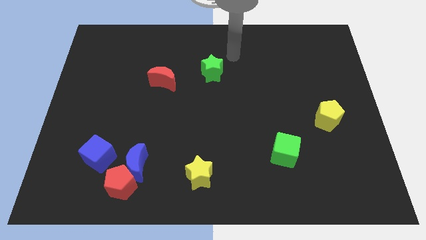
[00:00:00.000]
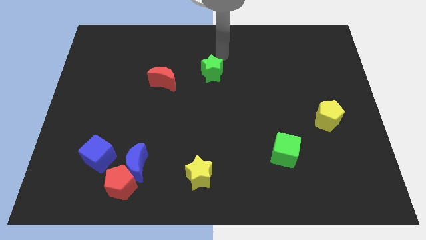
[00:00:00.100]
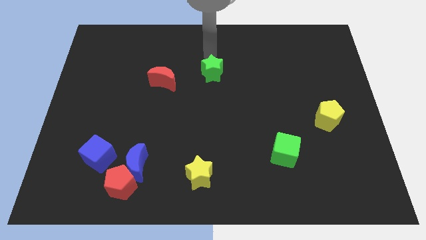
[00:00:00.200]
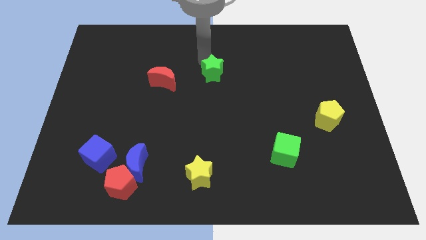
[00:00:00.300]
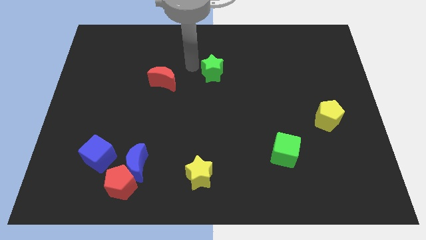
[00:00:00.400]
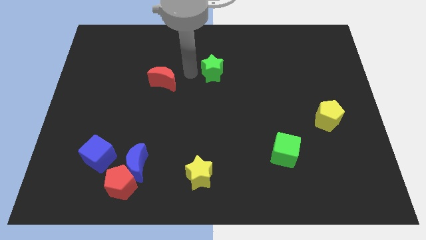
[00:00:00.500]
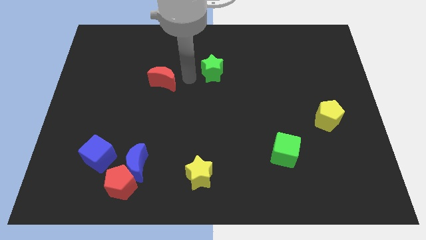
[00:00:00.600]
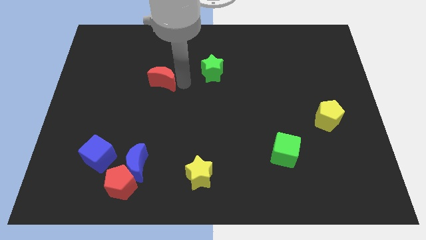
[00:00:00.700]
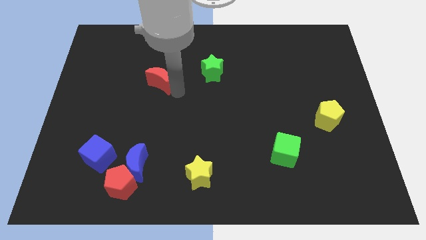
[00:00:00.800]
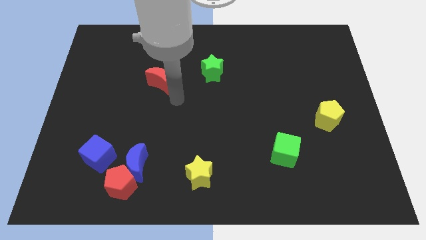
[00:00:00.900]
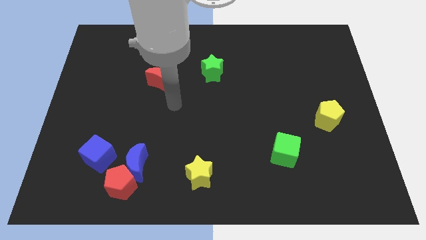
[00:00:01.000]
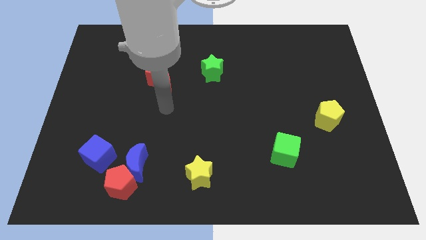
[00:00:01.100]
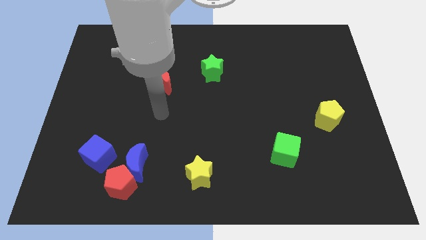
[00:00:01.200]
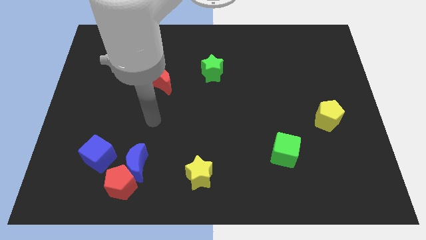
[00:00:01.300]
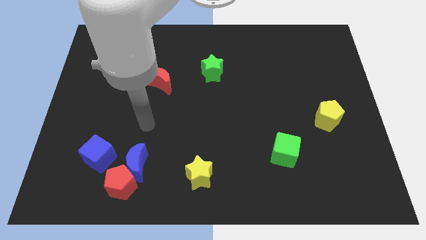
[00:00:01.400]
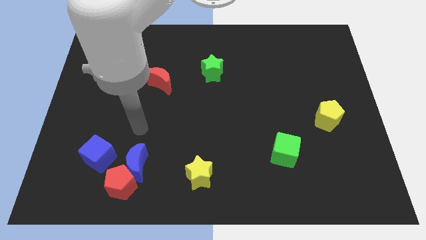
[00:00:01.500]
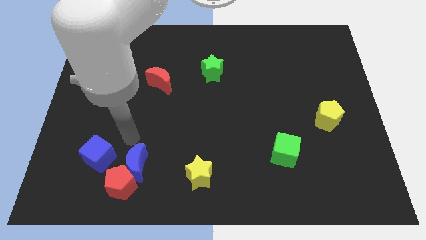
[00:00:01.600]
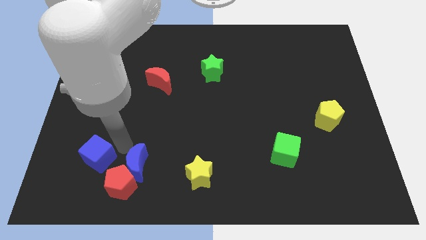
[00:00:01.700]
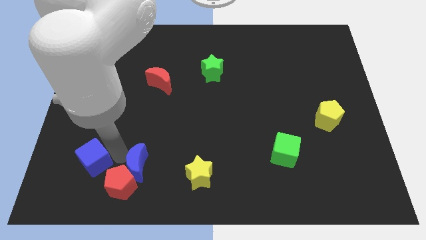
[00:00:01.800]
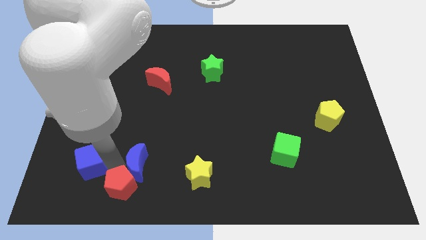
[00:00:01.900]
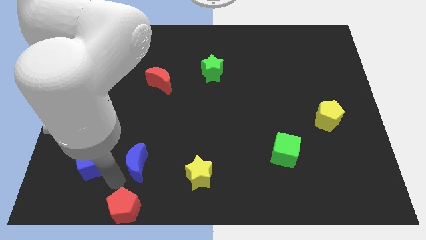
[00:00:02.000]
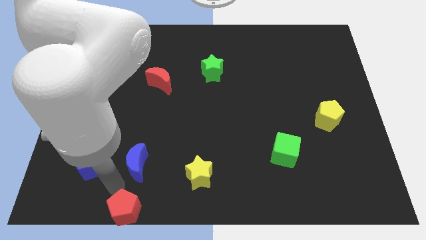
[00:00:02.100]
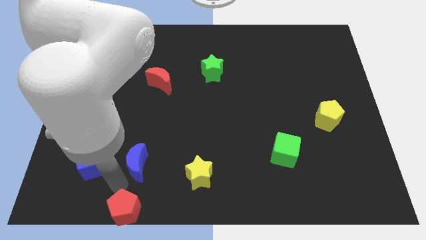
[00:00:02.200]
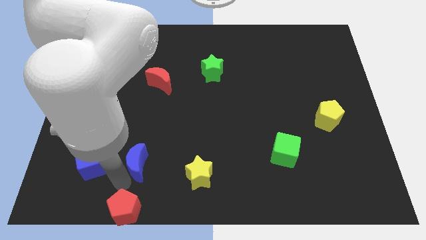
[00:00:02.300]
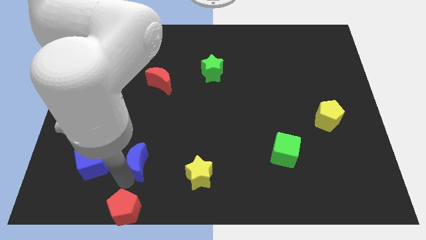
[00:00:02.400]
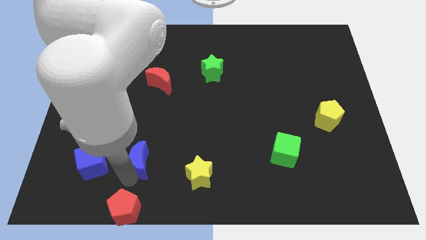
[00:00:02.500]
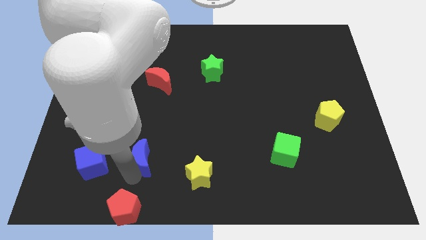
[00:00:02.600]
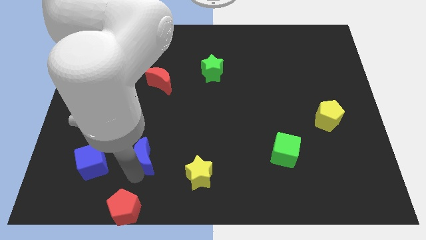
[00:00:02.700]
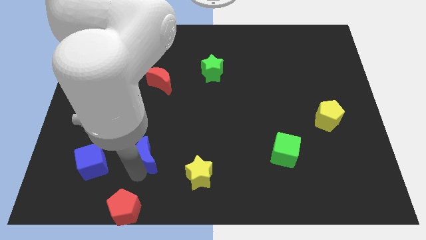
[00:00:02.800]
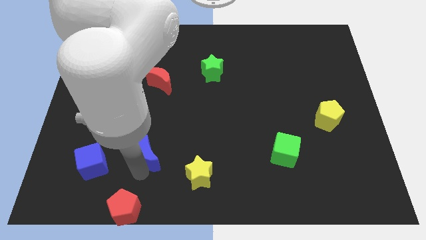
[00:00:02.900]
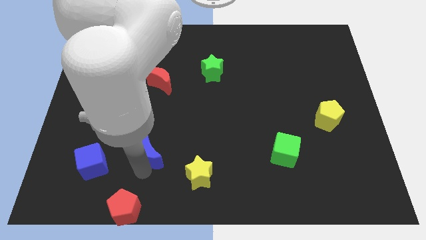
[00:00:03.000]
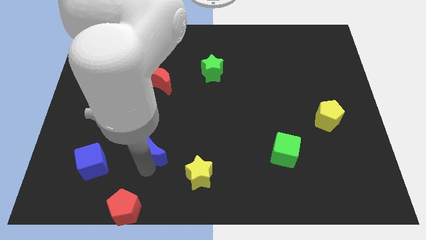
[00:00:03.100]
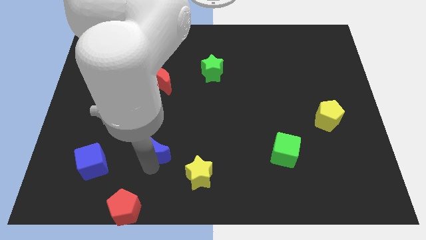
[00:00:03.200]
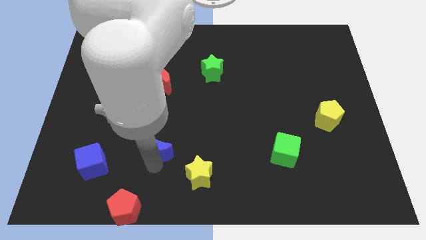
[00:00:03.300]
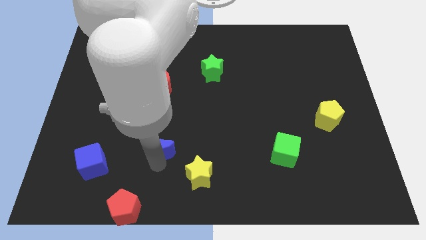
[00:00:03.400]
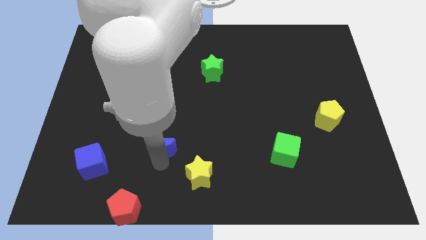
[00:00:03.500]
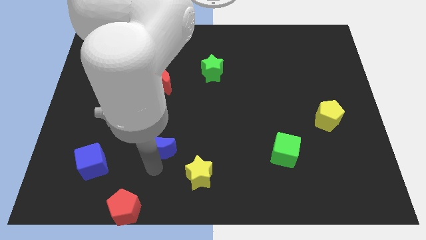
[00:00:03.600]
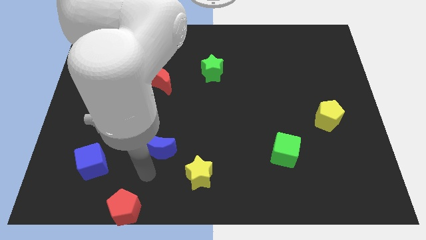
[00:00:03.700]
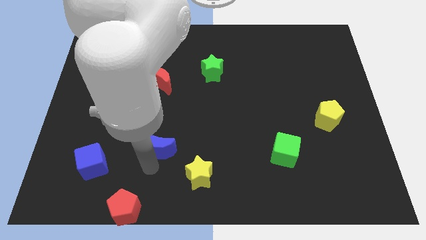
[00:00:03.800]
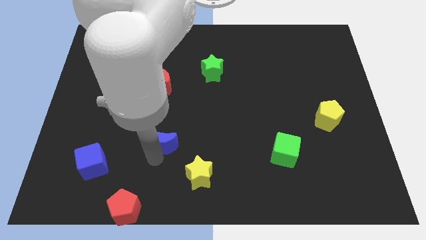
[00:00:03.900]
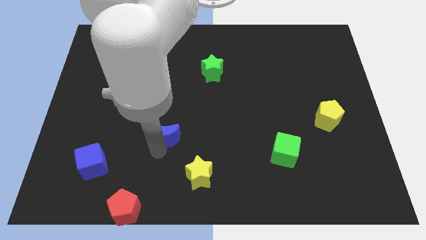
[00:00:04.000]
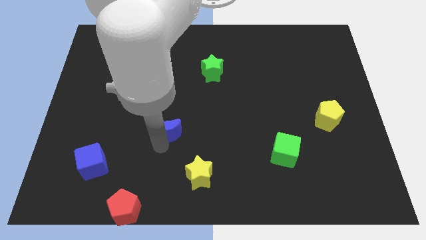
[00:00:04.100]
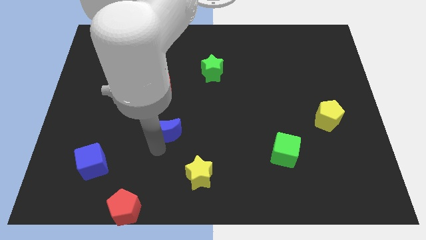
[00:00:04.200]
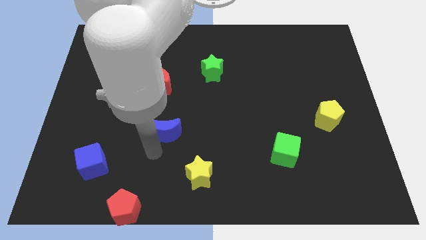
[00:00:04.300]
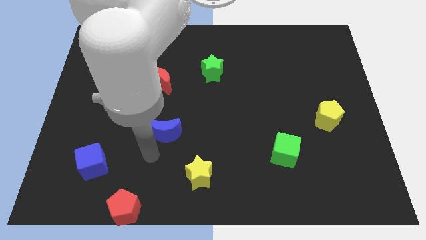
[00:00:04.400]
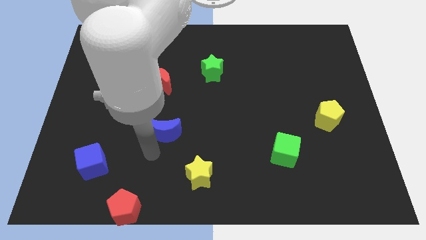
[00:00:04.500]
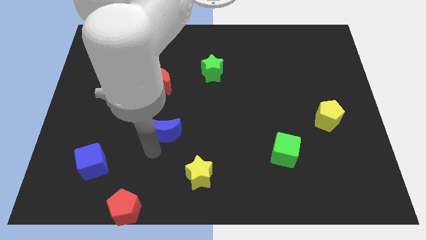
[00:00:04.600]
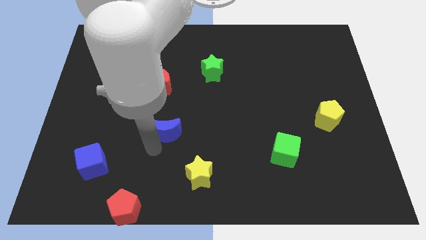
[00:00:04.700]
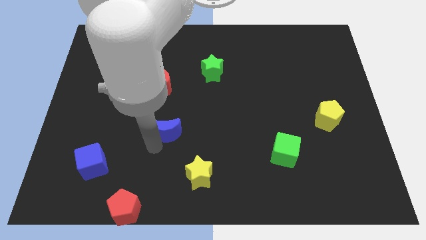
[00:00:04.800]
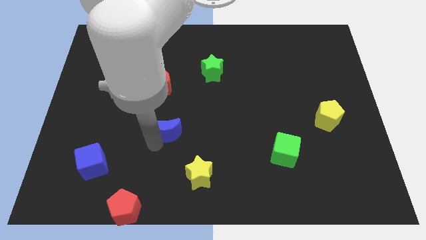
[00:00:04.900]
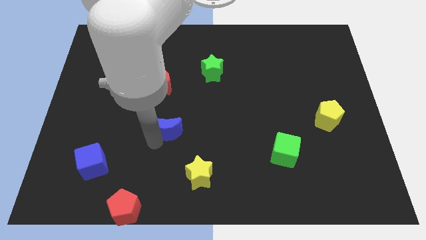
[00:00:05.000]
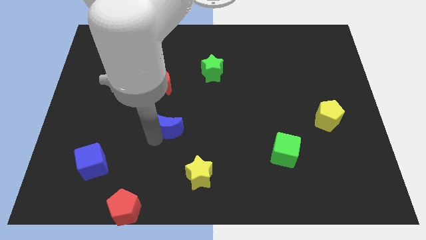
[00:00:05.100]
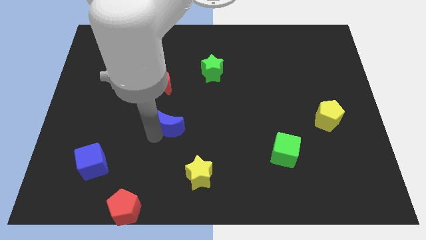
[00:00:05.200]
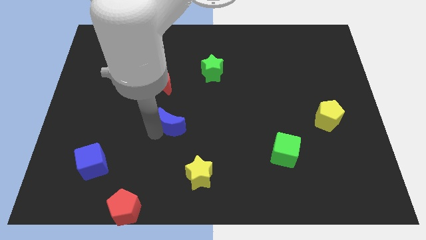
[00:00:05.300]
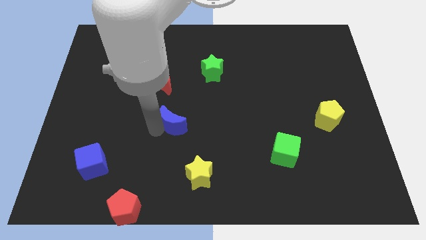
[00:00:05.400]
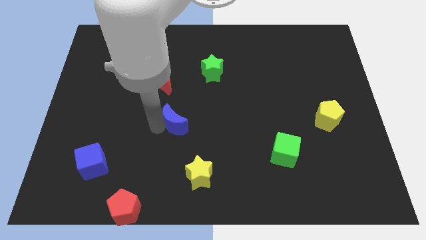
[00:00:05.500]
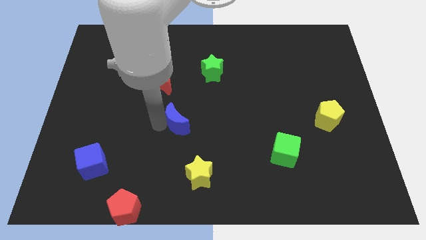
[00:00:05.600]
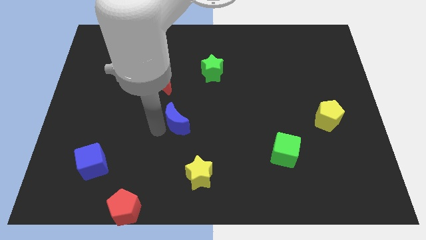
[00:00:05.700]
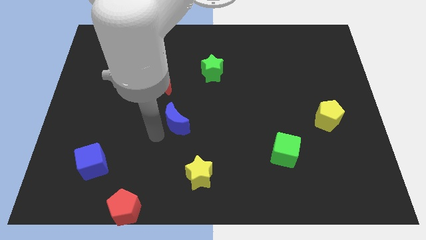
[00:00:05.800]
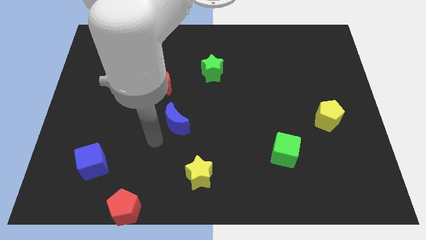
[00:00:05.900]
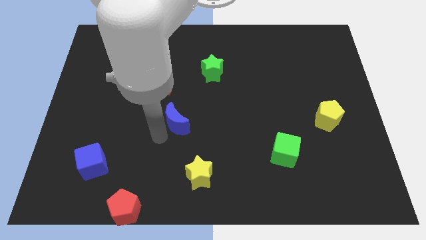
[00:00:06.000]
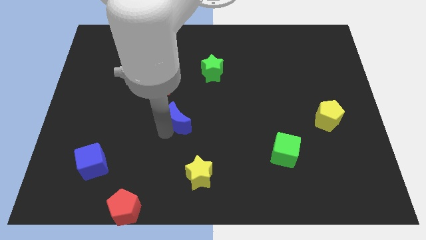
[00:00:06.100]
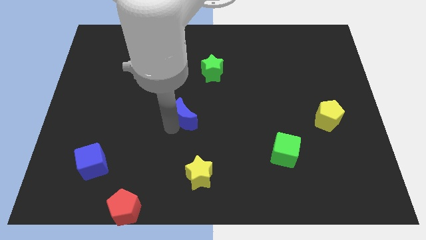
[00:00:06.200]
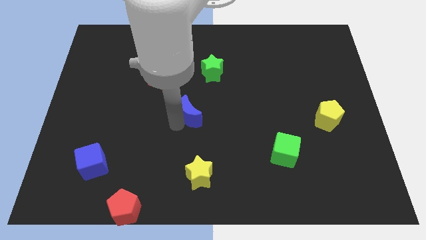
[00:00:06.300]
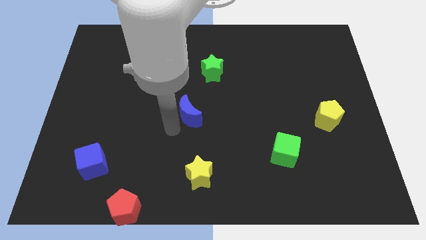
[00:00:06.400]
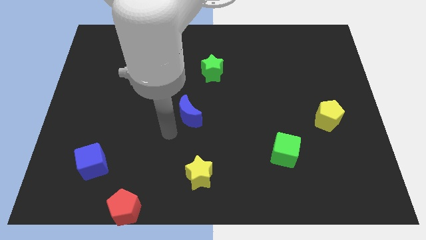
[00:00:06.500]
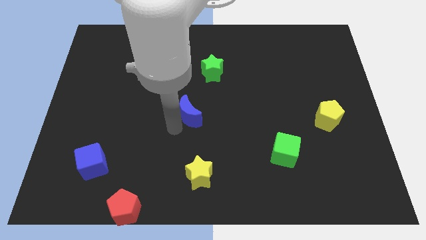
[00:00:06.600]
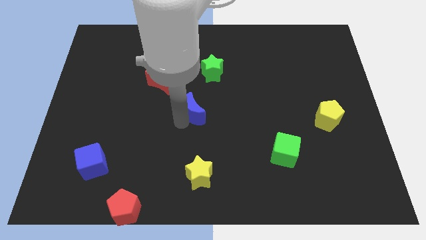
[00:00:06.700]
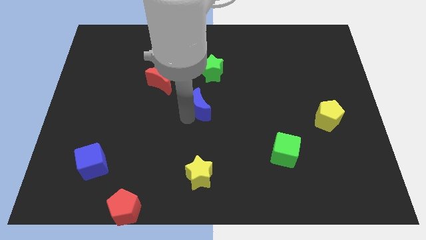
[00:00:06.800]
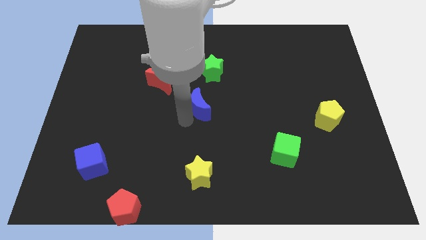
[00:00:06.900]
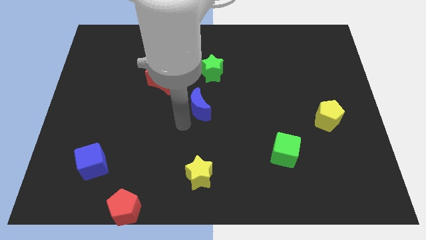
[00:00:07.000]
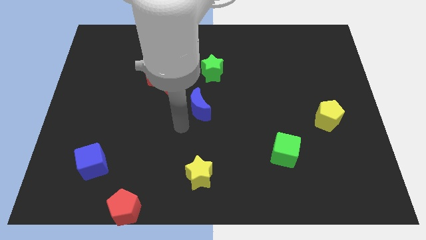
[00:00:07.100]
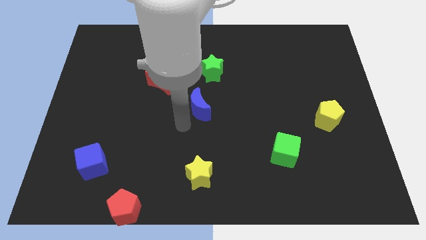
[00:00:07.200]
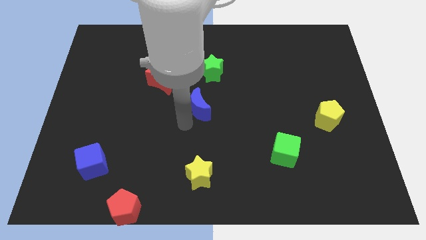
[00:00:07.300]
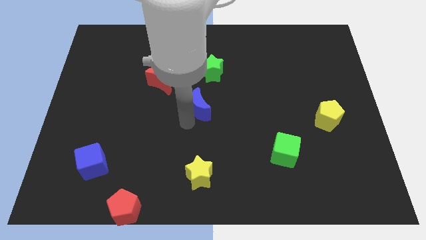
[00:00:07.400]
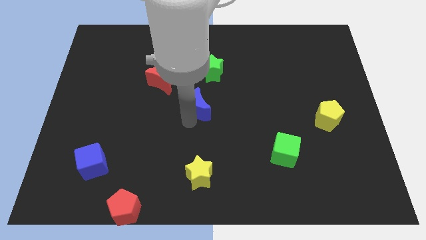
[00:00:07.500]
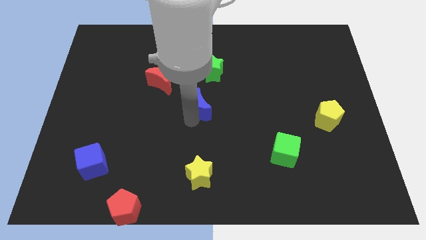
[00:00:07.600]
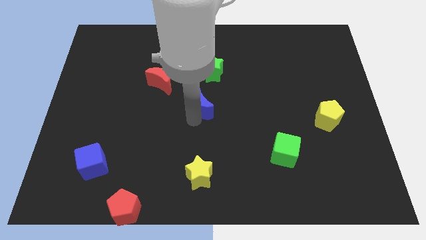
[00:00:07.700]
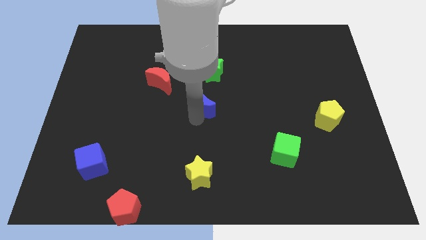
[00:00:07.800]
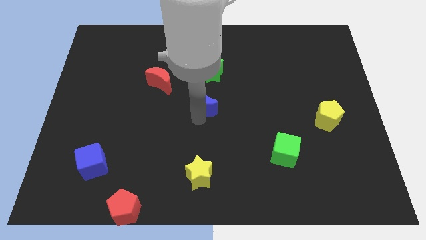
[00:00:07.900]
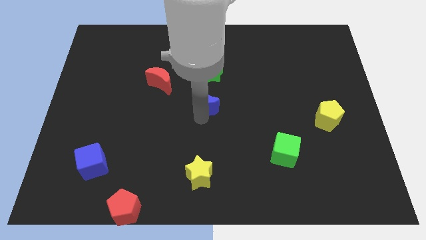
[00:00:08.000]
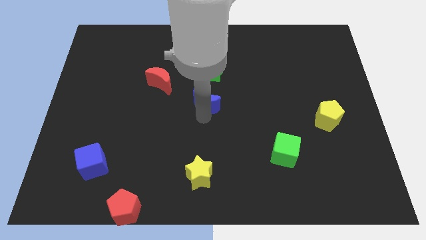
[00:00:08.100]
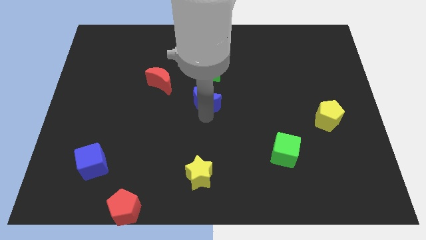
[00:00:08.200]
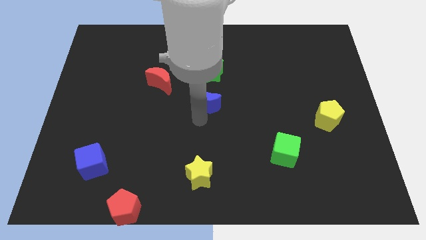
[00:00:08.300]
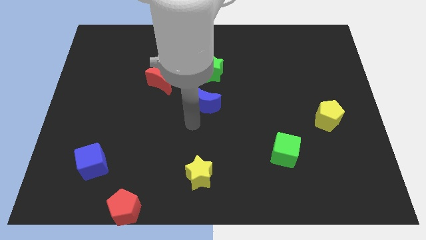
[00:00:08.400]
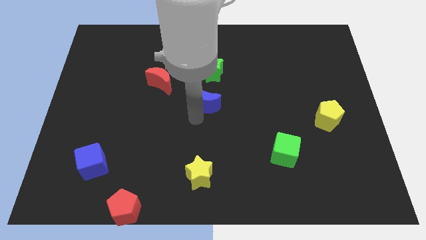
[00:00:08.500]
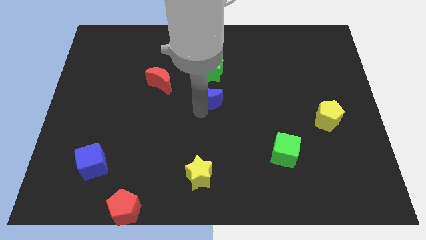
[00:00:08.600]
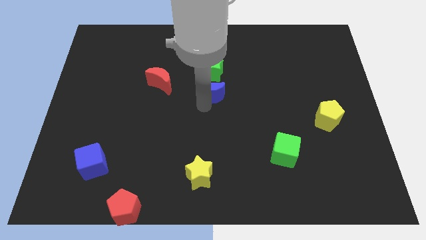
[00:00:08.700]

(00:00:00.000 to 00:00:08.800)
push the blue moon to the right of the red moon
